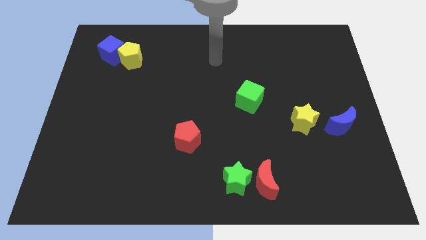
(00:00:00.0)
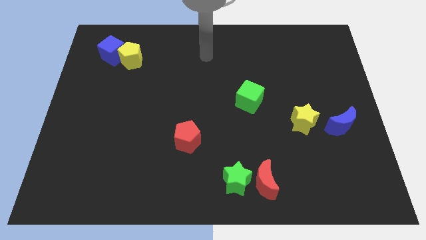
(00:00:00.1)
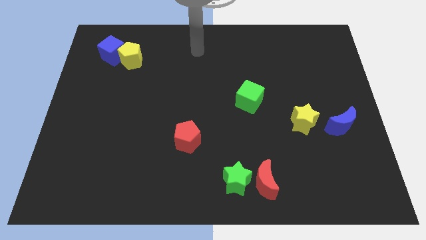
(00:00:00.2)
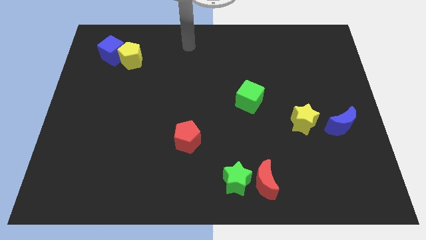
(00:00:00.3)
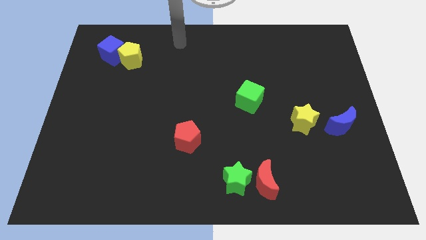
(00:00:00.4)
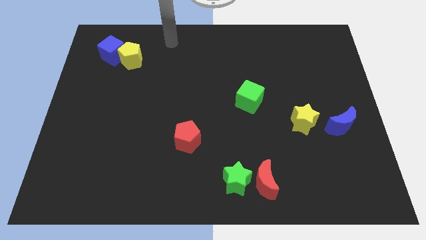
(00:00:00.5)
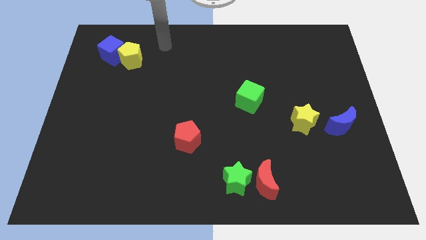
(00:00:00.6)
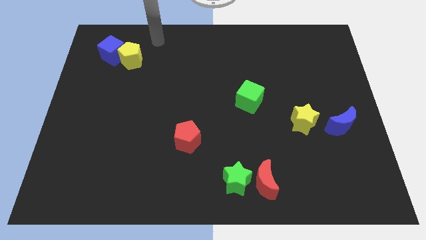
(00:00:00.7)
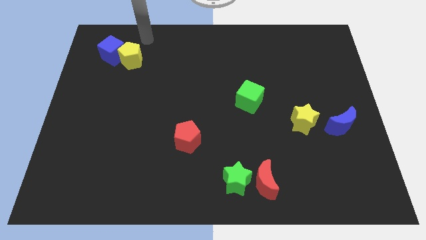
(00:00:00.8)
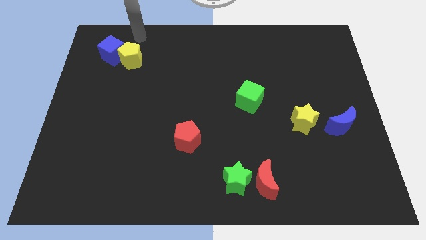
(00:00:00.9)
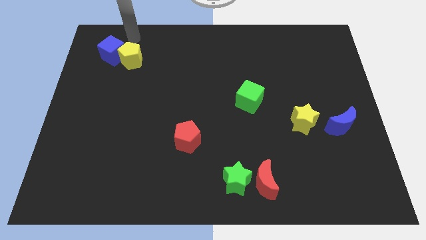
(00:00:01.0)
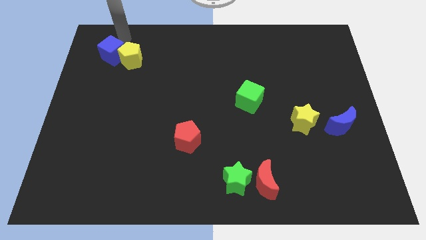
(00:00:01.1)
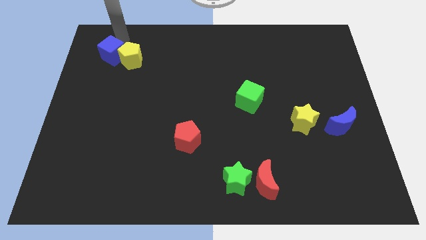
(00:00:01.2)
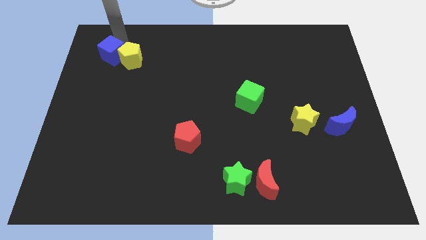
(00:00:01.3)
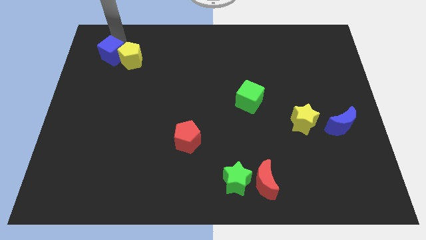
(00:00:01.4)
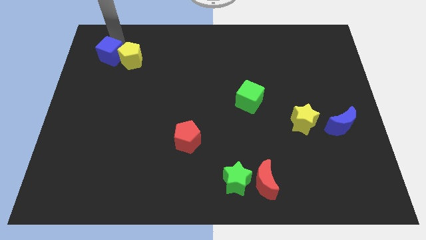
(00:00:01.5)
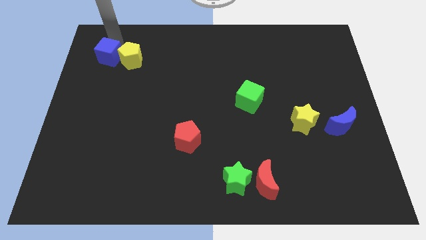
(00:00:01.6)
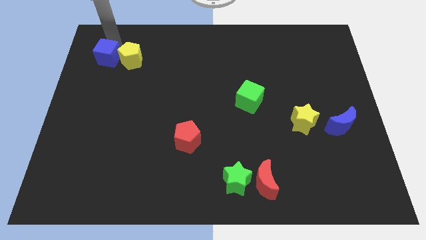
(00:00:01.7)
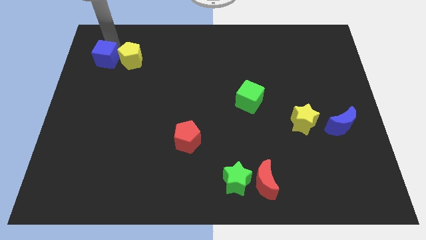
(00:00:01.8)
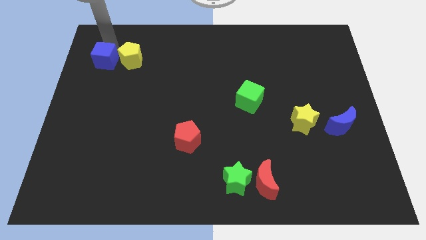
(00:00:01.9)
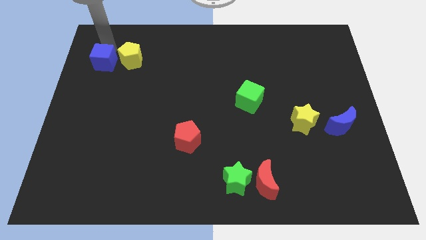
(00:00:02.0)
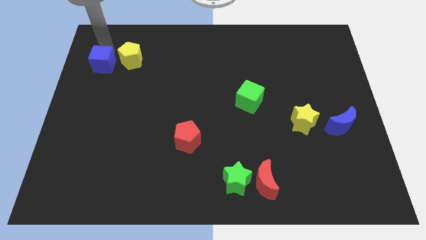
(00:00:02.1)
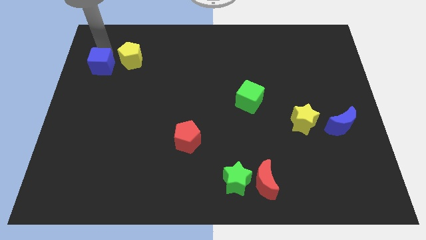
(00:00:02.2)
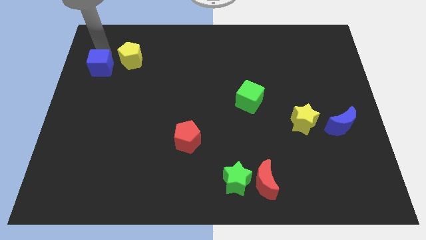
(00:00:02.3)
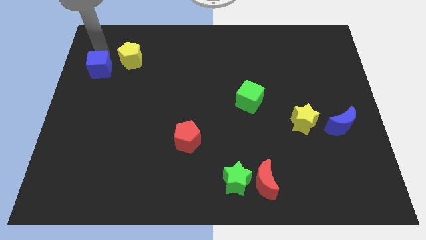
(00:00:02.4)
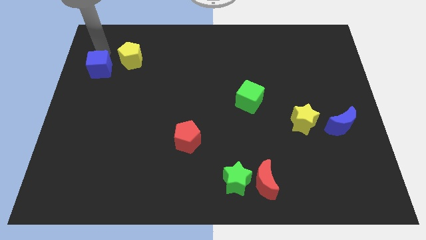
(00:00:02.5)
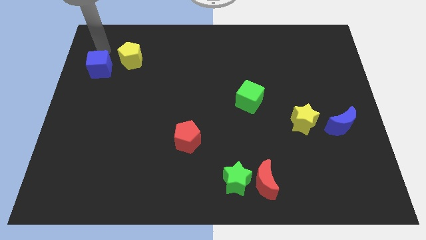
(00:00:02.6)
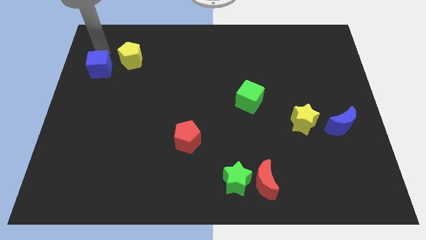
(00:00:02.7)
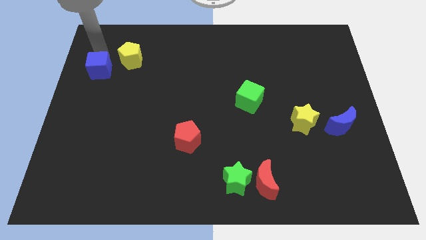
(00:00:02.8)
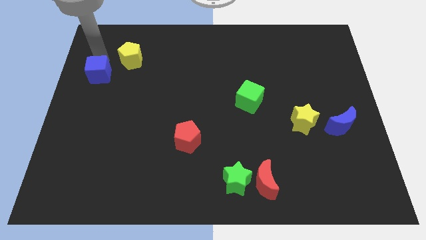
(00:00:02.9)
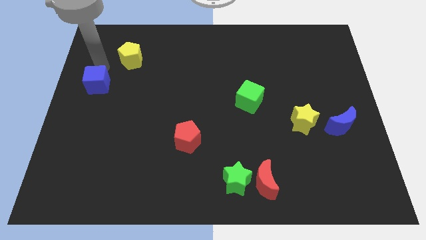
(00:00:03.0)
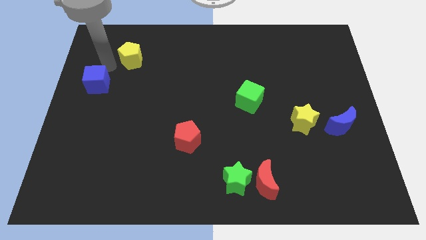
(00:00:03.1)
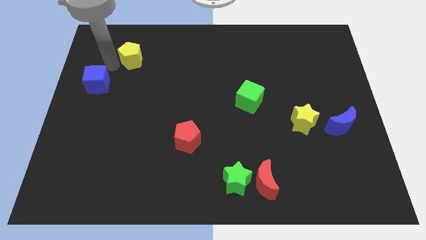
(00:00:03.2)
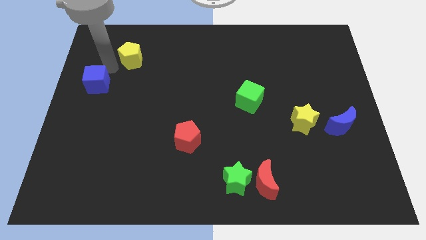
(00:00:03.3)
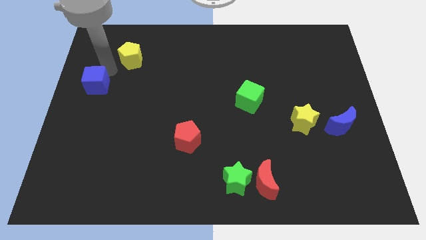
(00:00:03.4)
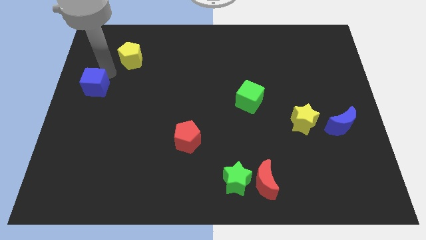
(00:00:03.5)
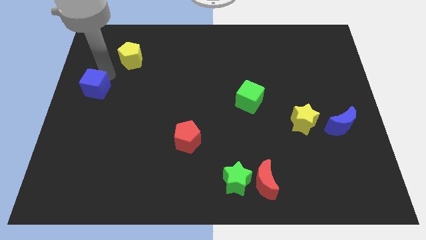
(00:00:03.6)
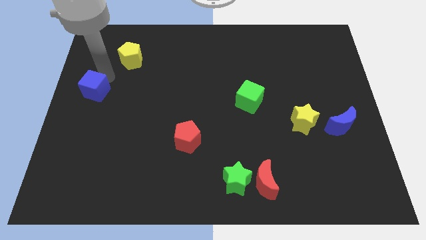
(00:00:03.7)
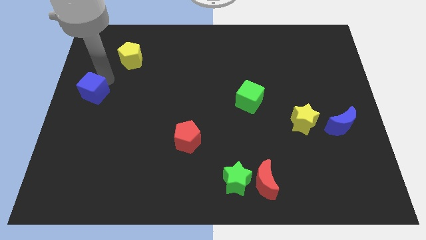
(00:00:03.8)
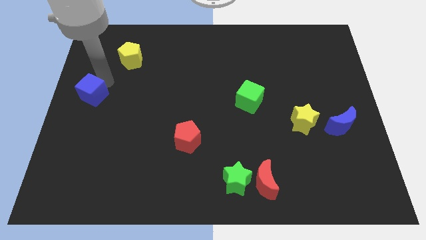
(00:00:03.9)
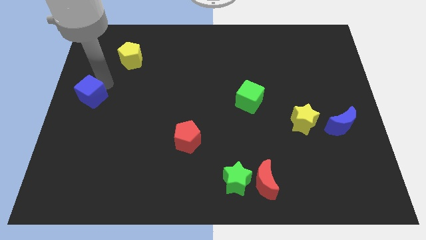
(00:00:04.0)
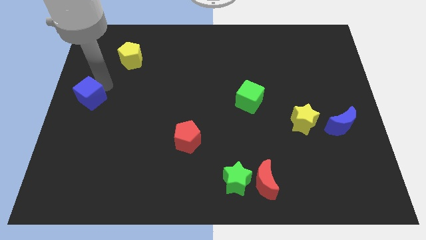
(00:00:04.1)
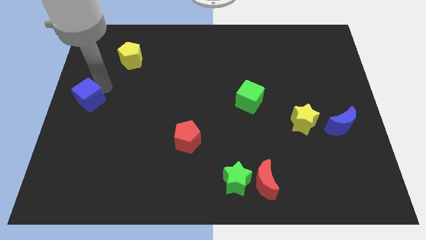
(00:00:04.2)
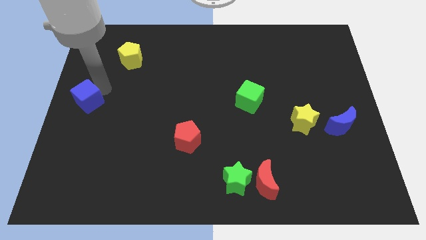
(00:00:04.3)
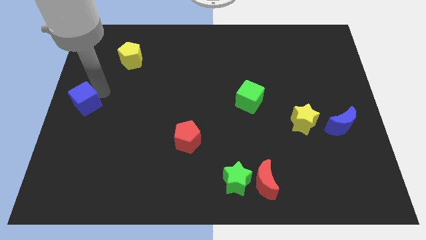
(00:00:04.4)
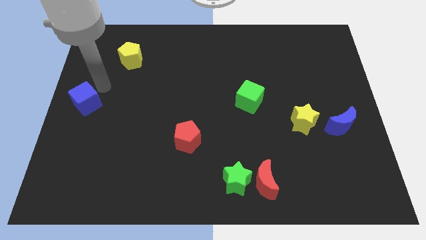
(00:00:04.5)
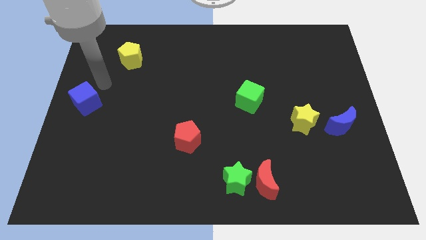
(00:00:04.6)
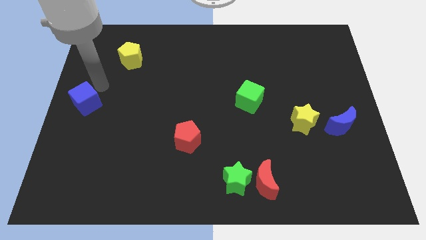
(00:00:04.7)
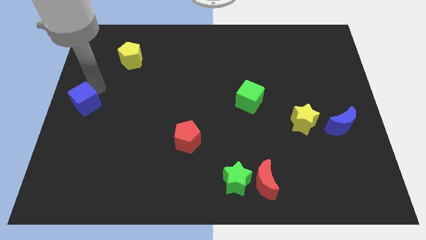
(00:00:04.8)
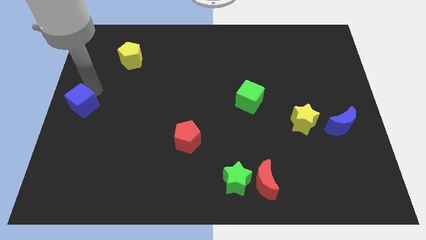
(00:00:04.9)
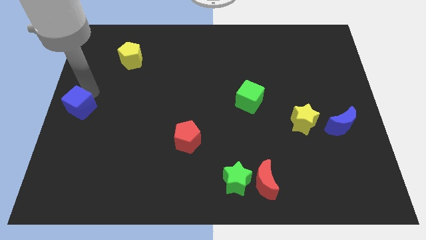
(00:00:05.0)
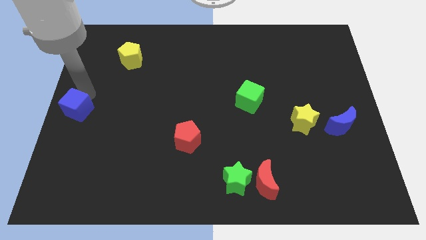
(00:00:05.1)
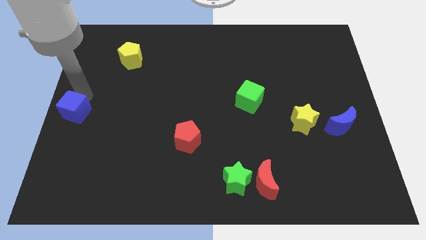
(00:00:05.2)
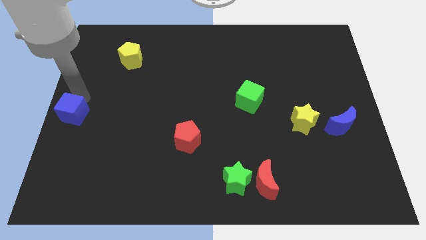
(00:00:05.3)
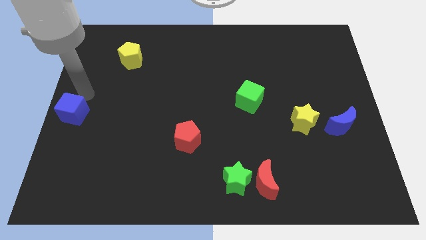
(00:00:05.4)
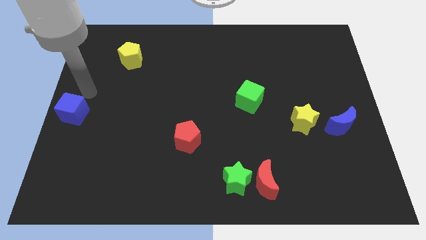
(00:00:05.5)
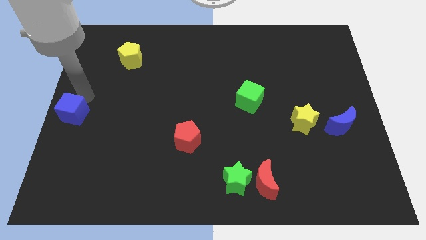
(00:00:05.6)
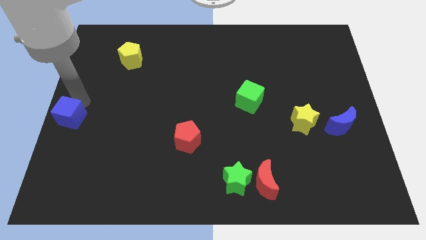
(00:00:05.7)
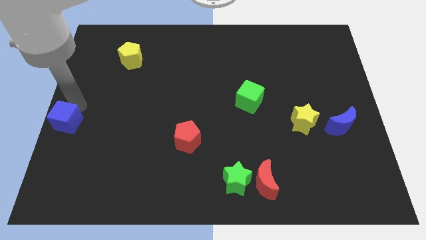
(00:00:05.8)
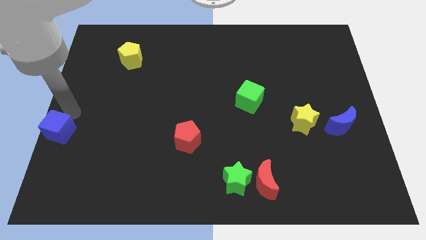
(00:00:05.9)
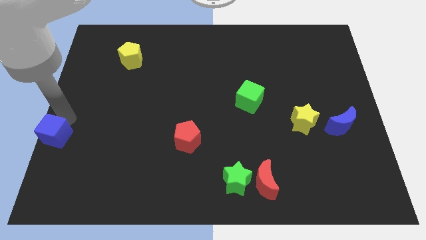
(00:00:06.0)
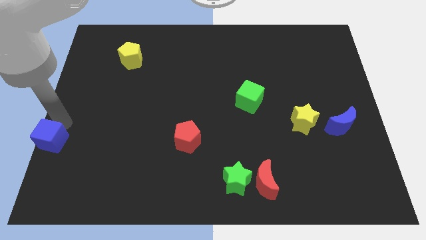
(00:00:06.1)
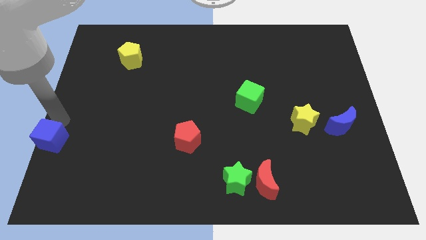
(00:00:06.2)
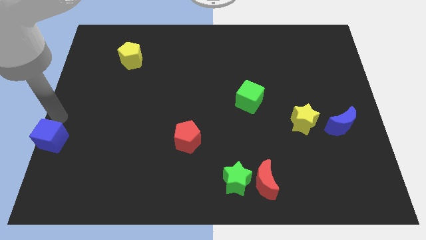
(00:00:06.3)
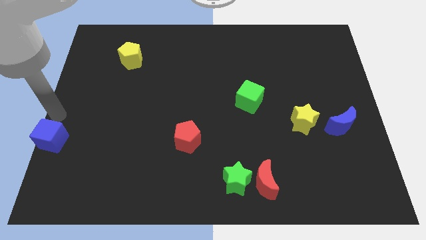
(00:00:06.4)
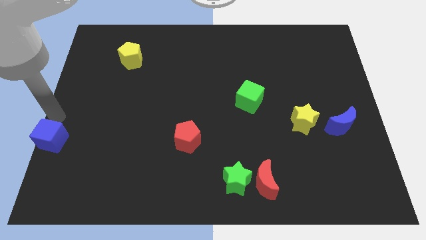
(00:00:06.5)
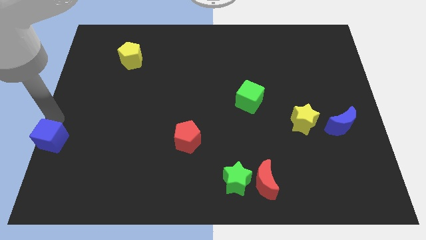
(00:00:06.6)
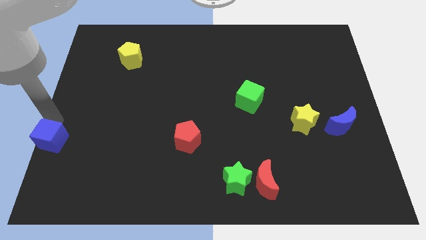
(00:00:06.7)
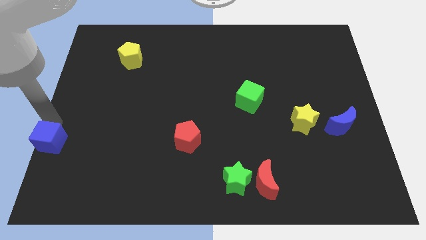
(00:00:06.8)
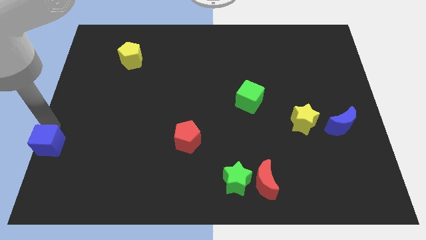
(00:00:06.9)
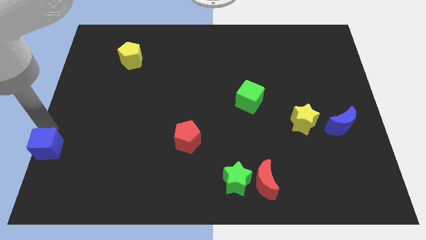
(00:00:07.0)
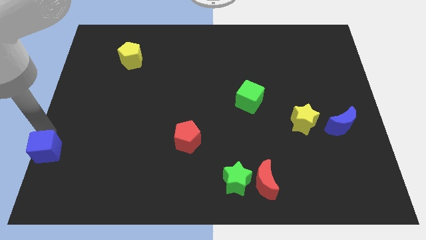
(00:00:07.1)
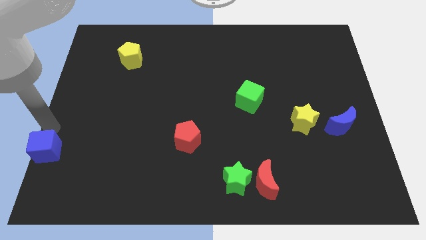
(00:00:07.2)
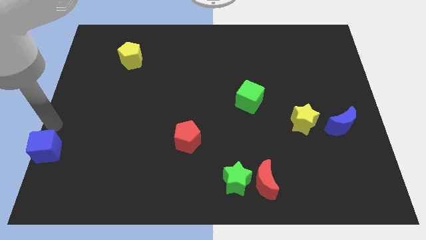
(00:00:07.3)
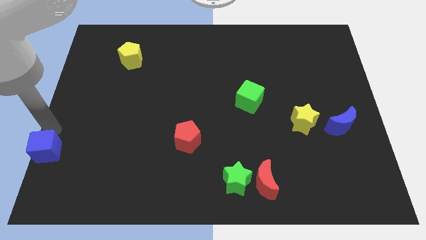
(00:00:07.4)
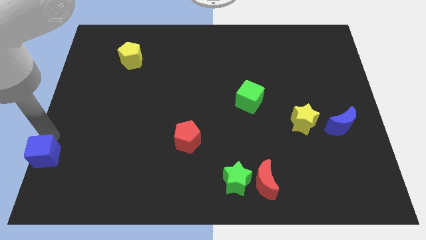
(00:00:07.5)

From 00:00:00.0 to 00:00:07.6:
push the blue cube to the bottom left of the board
